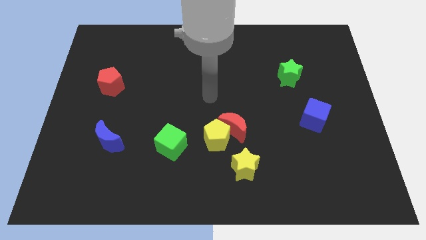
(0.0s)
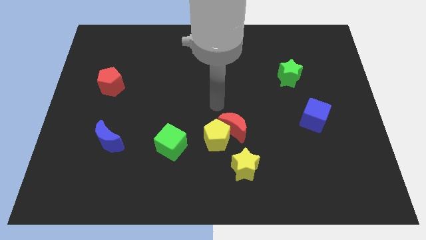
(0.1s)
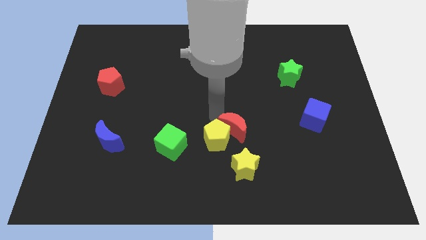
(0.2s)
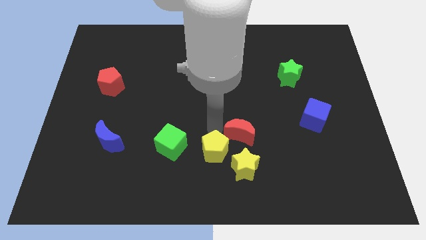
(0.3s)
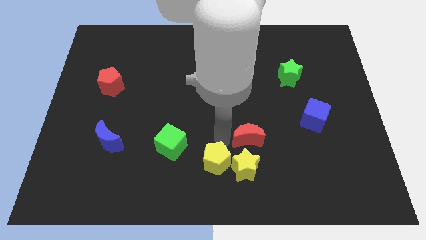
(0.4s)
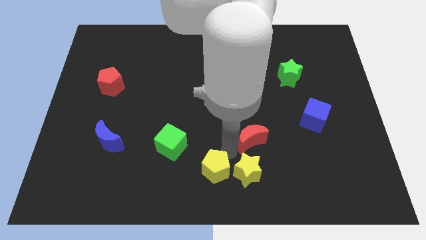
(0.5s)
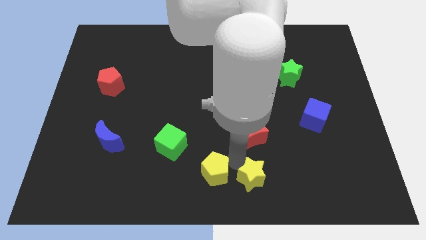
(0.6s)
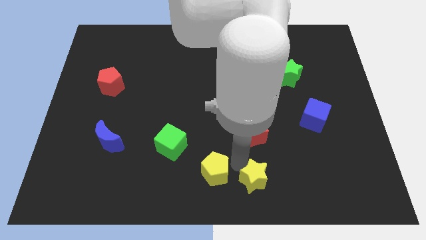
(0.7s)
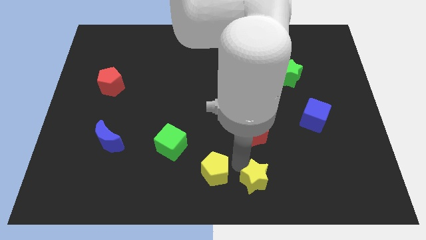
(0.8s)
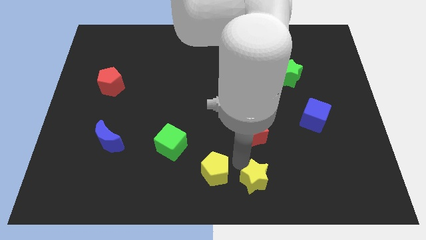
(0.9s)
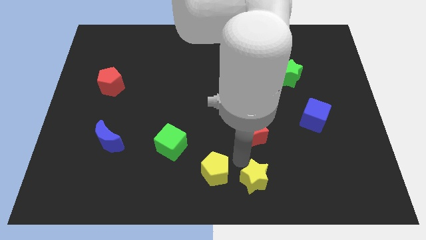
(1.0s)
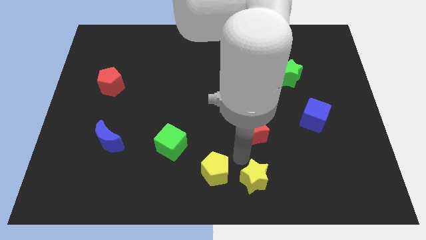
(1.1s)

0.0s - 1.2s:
pull the red moon apart from the yellow pentagon and yellow star

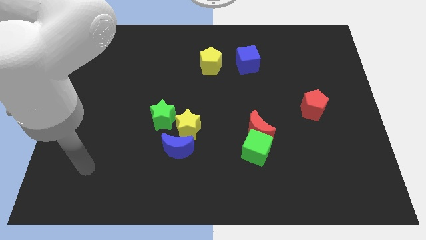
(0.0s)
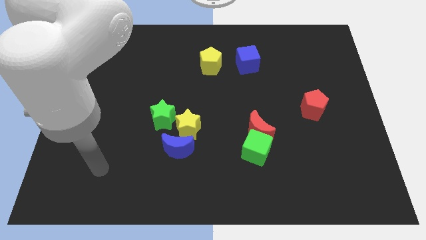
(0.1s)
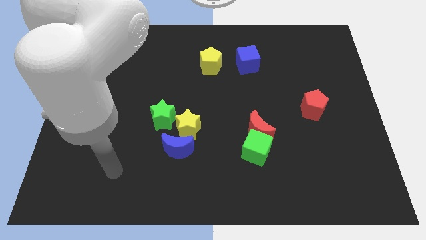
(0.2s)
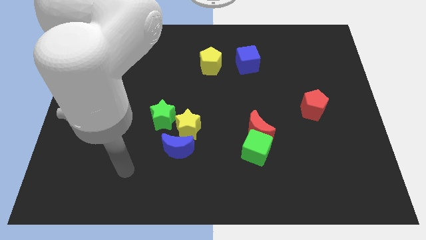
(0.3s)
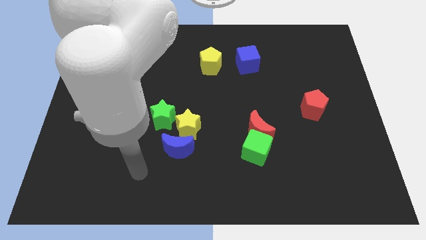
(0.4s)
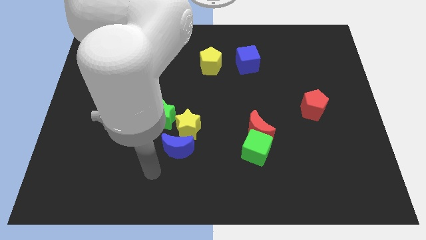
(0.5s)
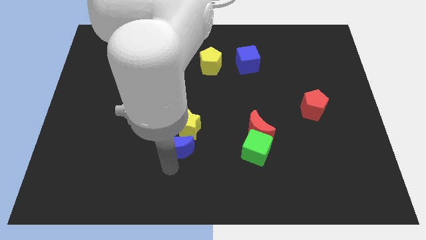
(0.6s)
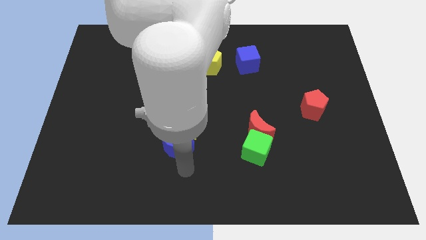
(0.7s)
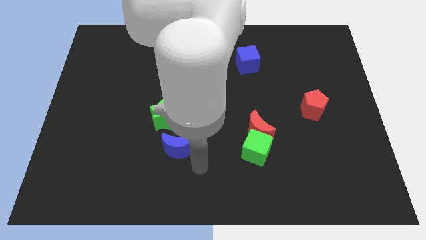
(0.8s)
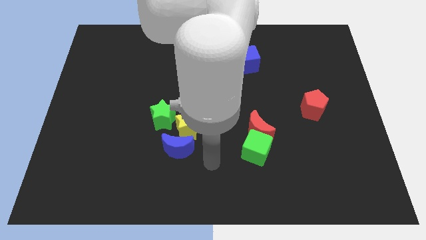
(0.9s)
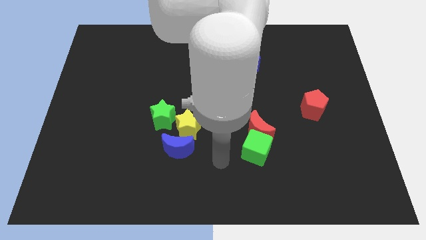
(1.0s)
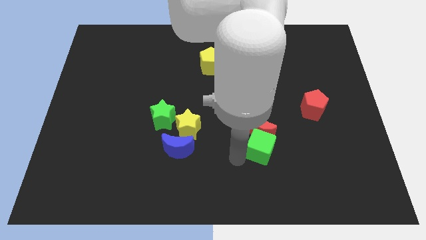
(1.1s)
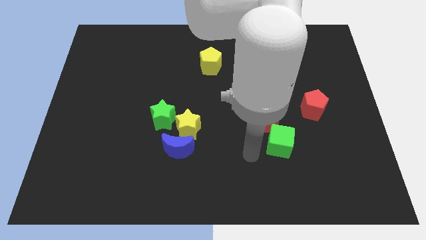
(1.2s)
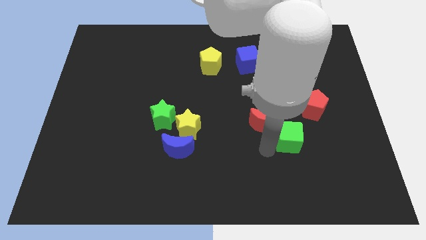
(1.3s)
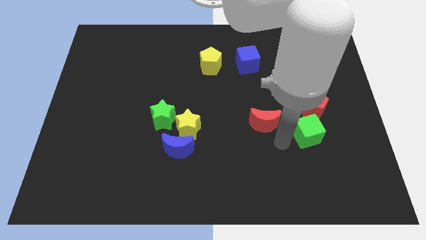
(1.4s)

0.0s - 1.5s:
move the red moon away from the green cube

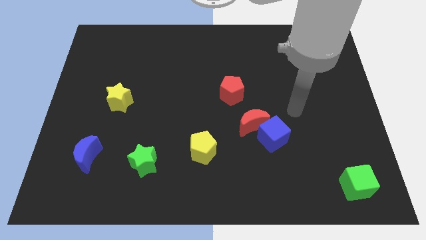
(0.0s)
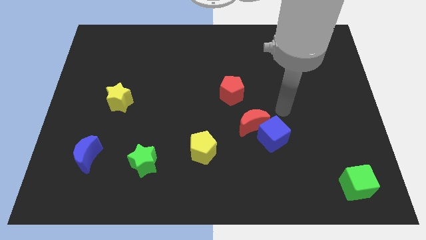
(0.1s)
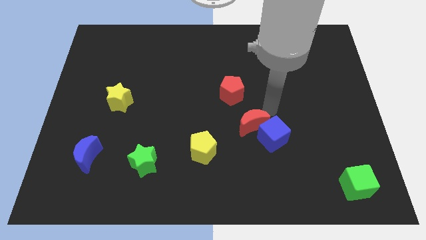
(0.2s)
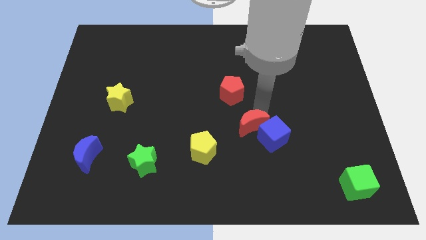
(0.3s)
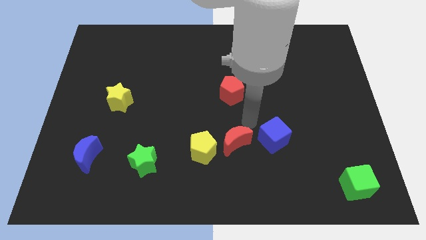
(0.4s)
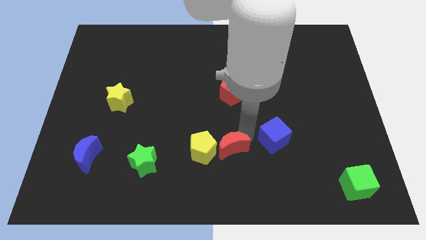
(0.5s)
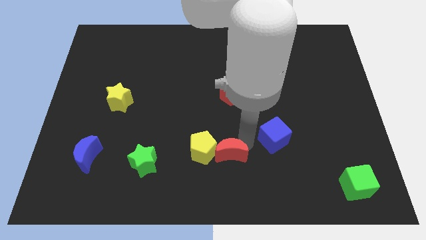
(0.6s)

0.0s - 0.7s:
pull the blue cube apart from the red moon

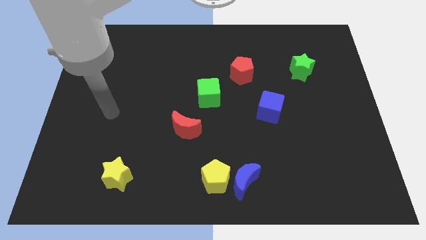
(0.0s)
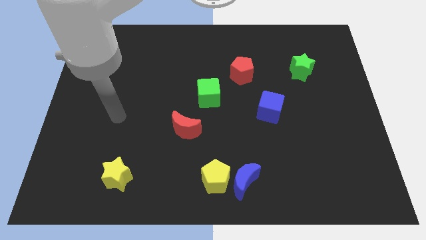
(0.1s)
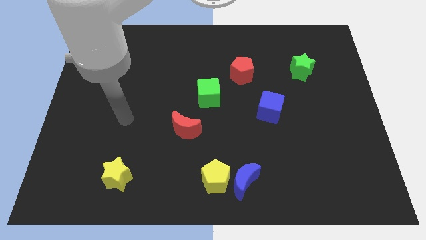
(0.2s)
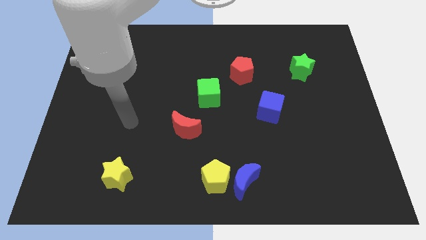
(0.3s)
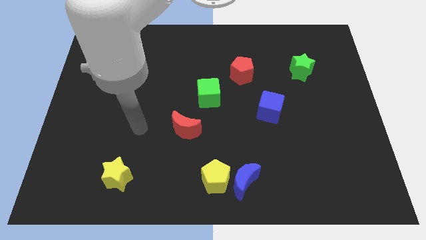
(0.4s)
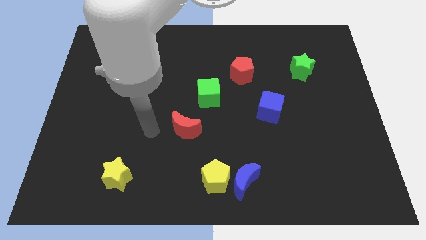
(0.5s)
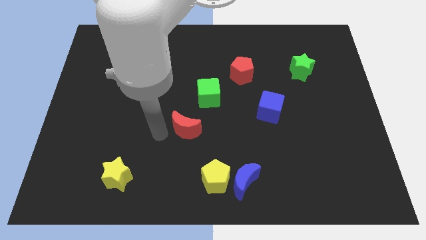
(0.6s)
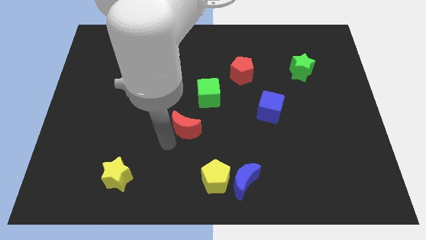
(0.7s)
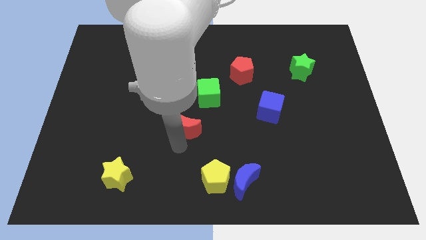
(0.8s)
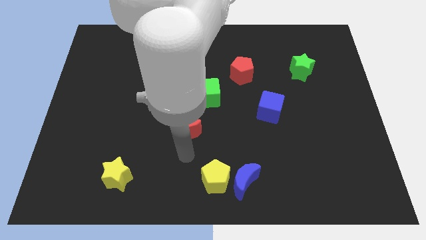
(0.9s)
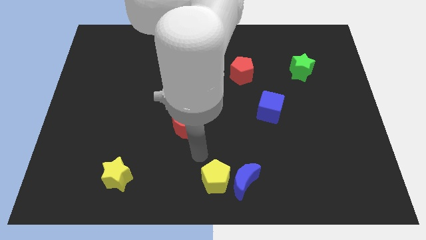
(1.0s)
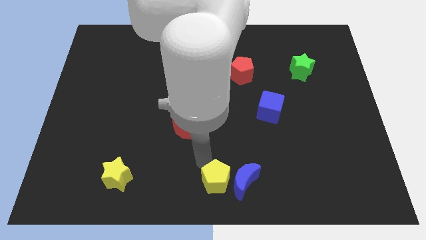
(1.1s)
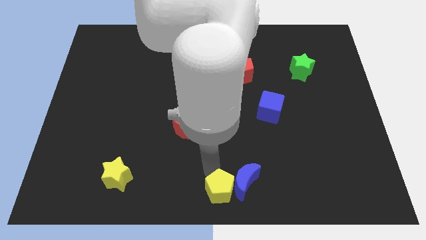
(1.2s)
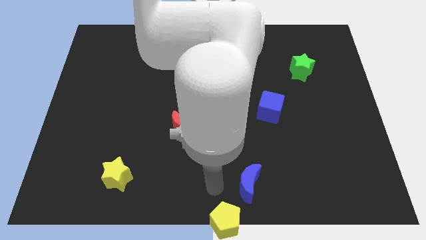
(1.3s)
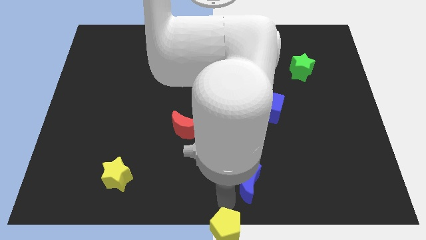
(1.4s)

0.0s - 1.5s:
separate the blue moon from the yellow pentagon

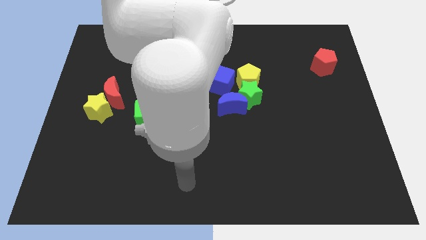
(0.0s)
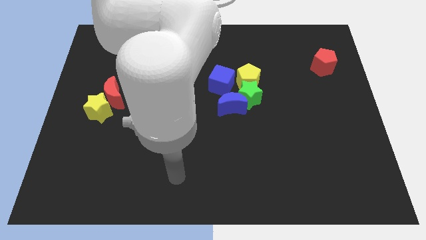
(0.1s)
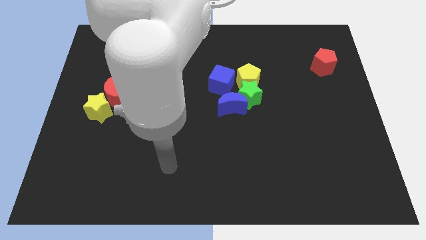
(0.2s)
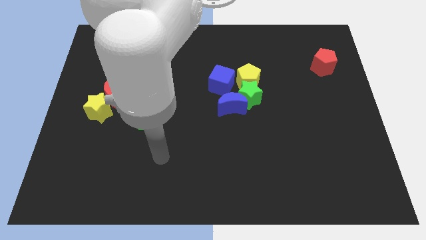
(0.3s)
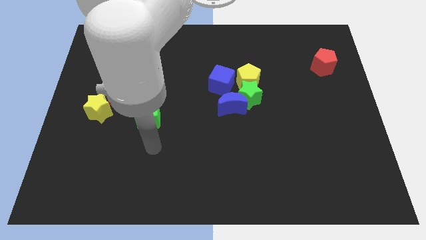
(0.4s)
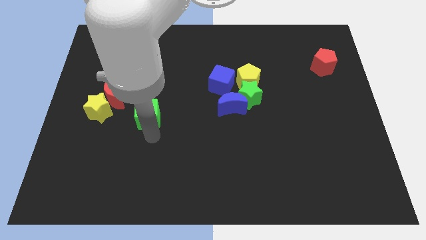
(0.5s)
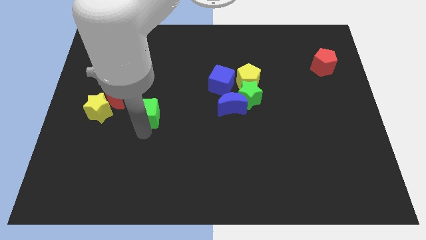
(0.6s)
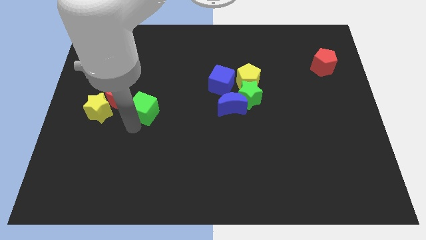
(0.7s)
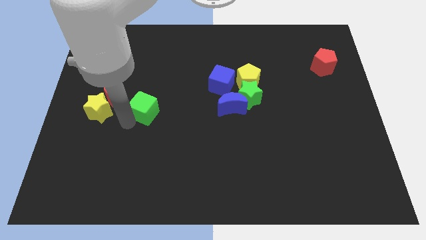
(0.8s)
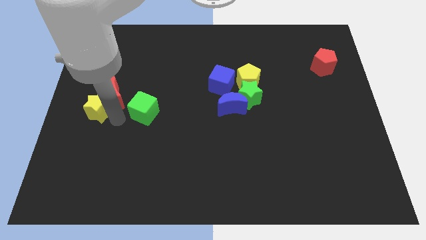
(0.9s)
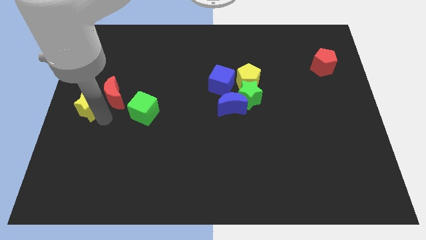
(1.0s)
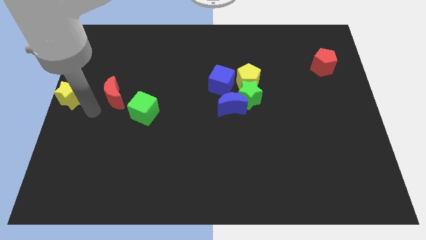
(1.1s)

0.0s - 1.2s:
separate the red moon from the yellow star

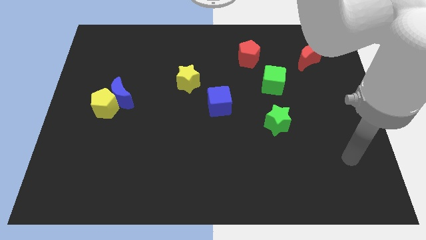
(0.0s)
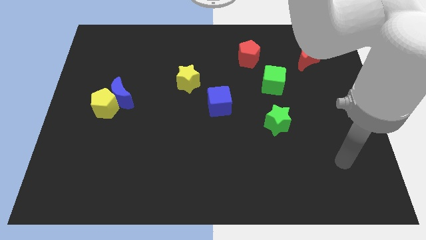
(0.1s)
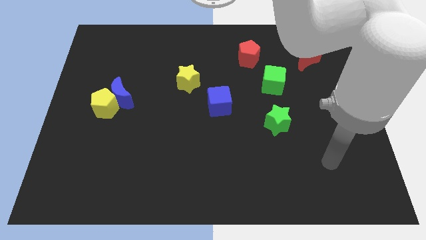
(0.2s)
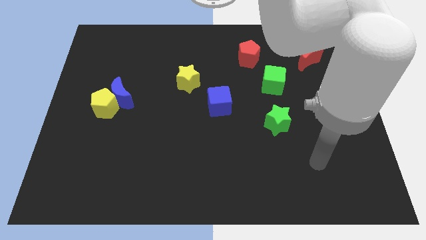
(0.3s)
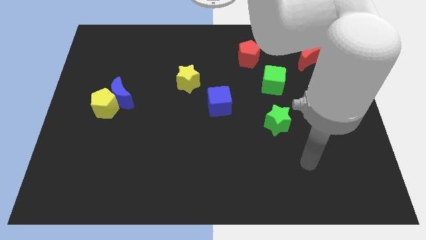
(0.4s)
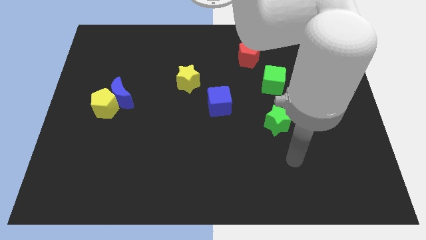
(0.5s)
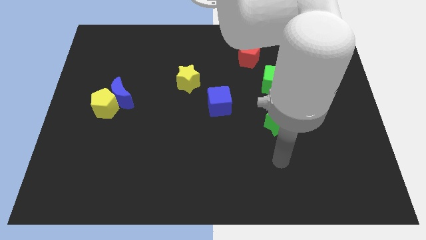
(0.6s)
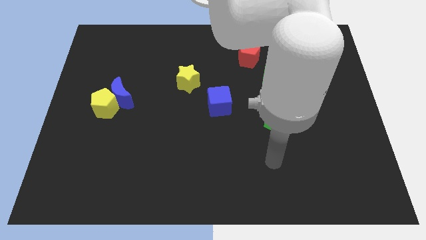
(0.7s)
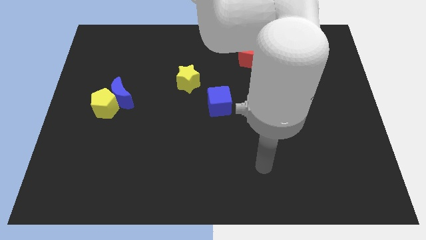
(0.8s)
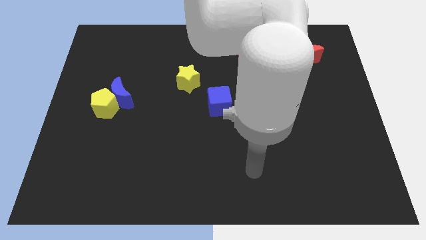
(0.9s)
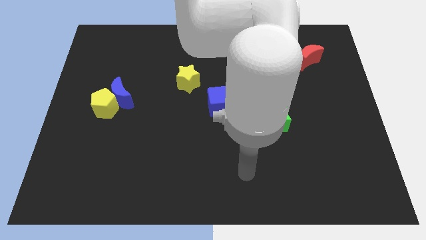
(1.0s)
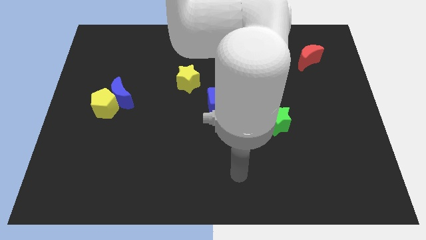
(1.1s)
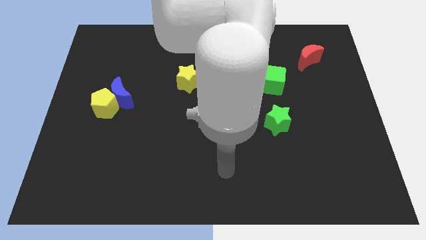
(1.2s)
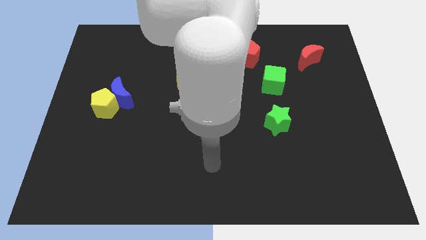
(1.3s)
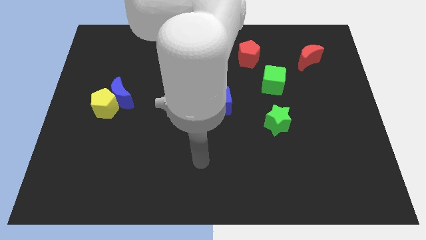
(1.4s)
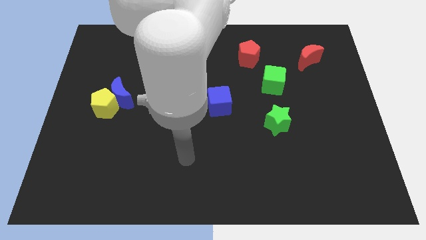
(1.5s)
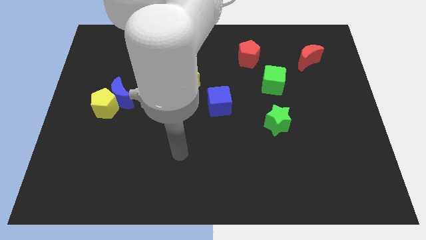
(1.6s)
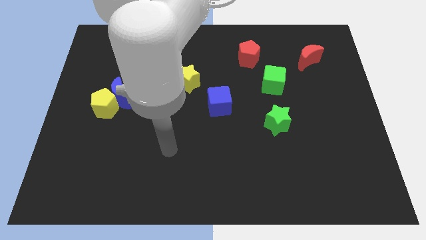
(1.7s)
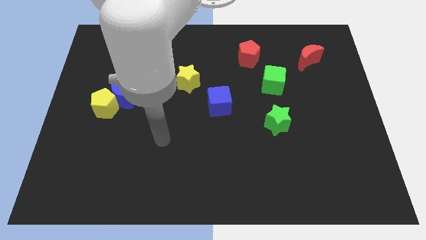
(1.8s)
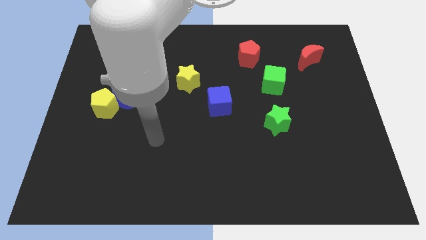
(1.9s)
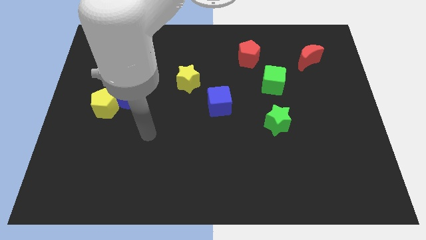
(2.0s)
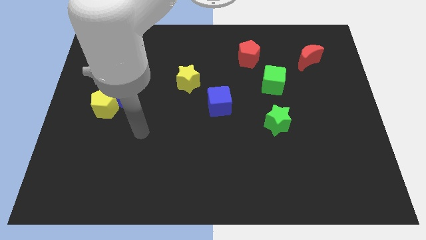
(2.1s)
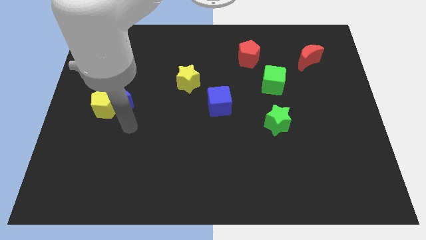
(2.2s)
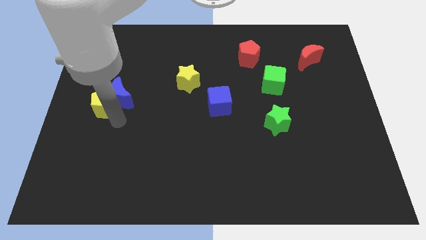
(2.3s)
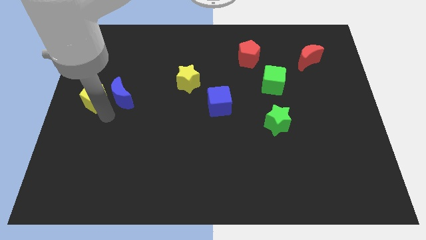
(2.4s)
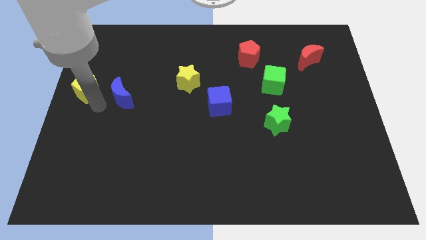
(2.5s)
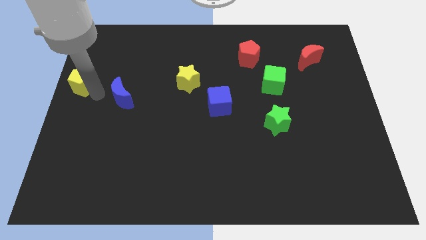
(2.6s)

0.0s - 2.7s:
move the blue moon away from the yellow pentagon

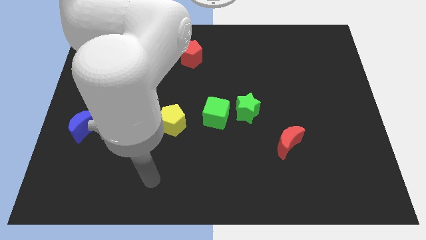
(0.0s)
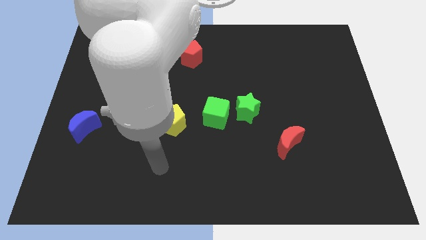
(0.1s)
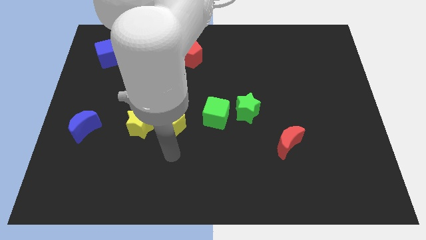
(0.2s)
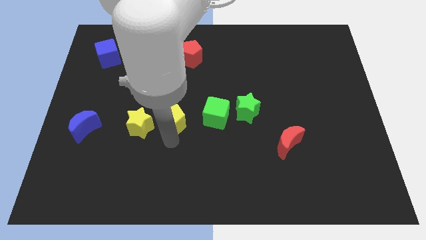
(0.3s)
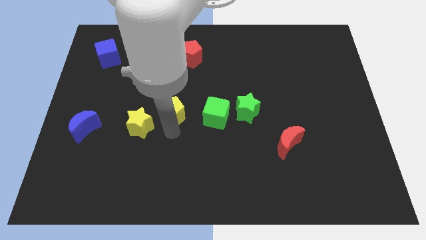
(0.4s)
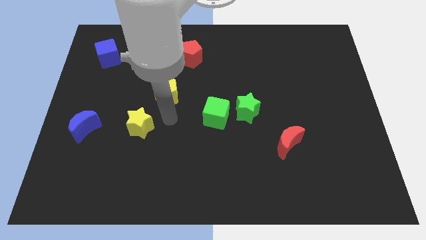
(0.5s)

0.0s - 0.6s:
pull the yellow star apart from the yellow pentagon
